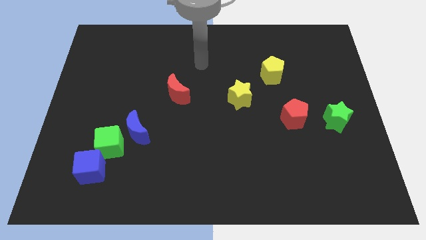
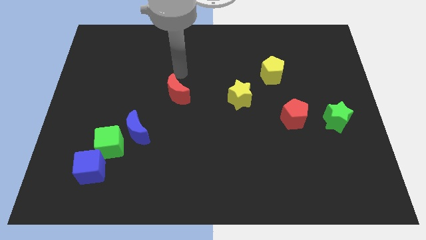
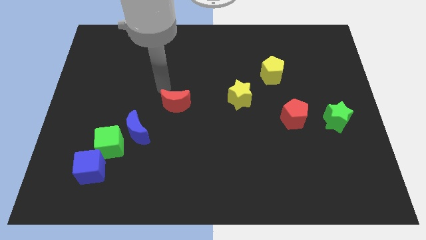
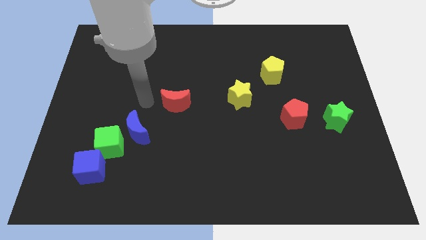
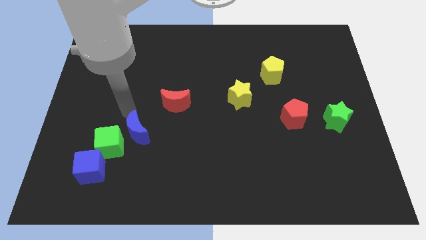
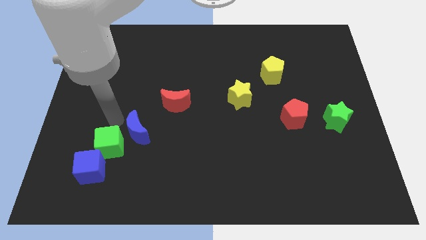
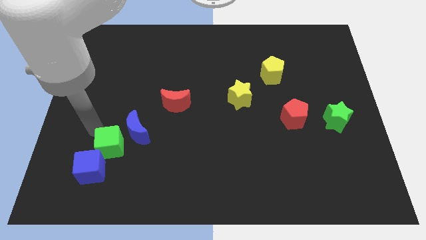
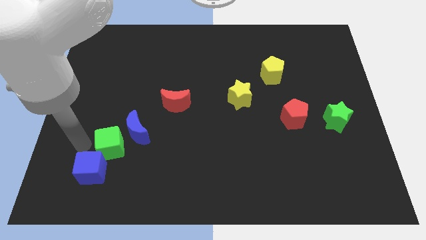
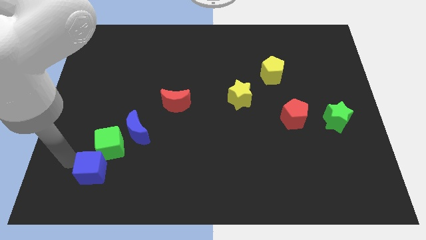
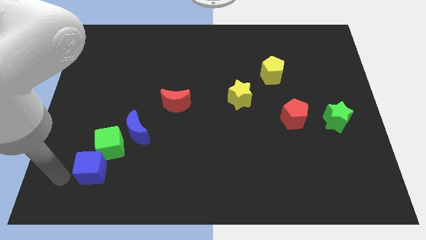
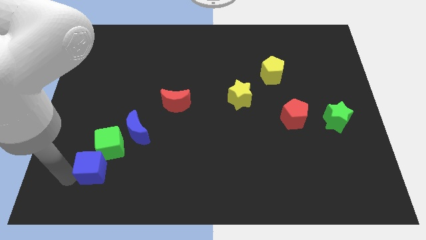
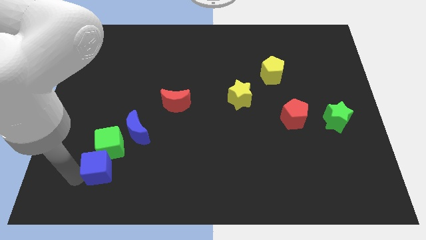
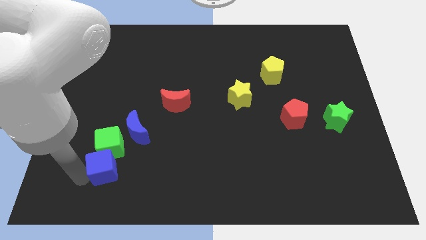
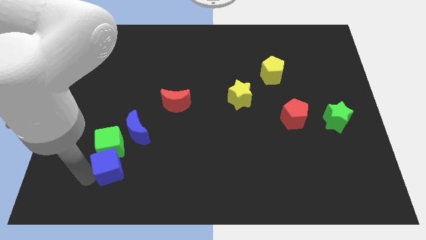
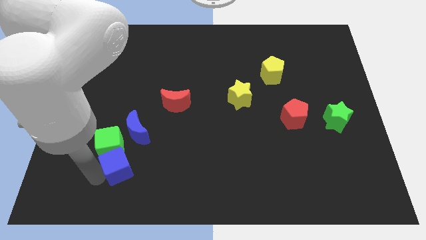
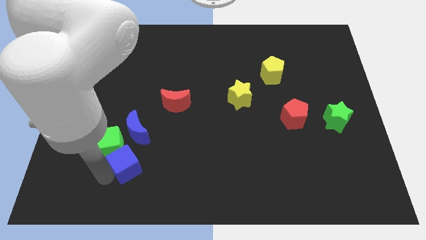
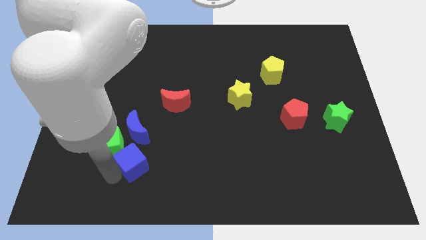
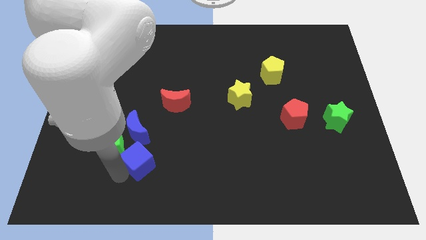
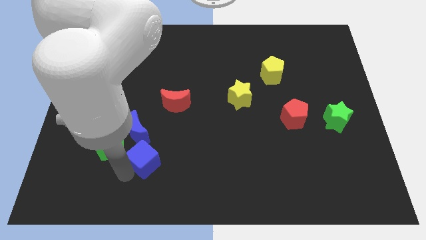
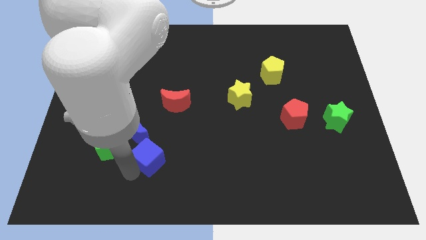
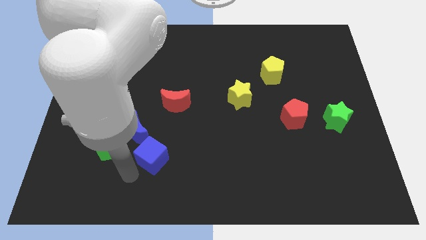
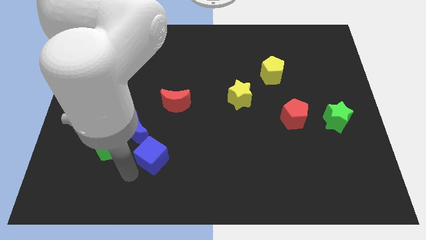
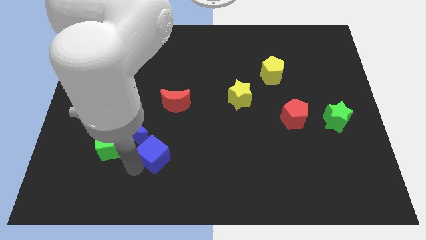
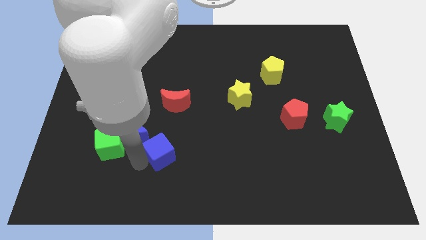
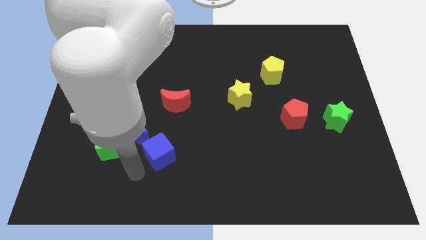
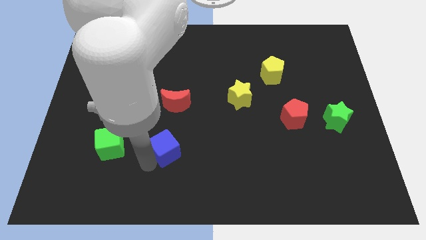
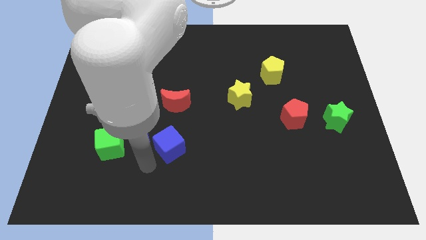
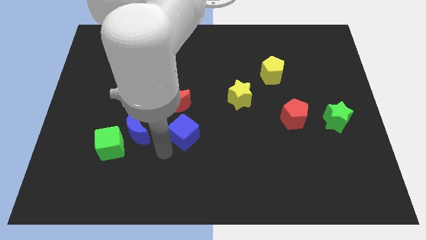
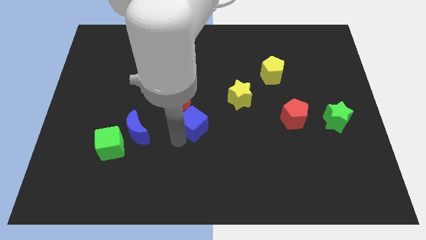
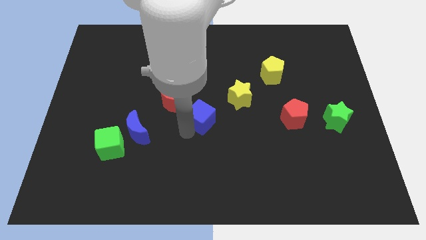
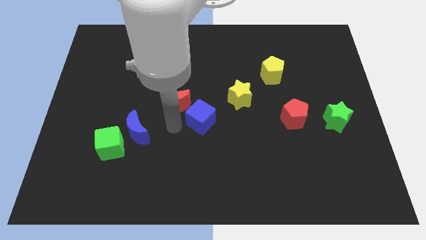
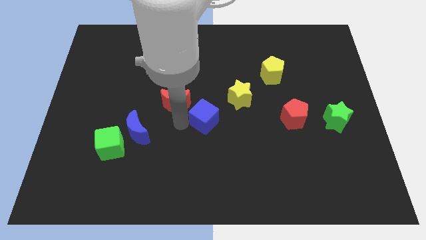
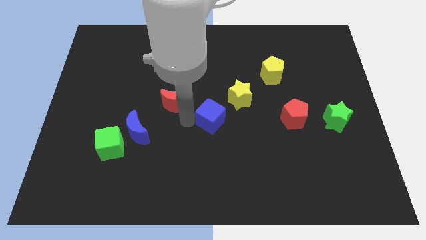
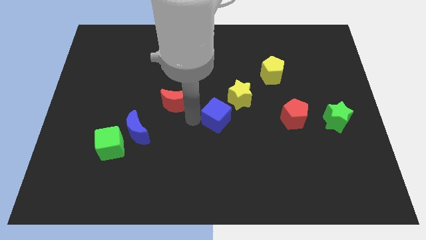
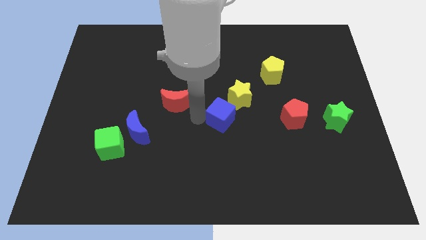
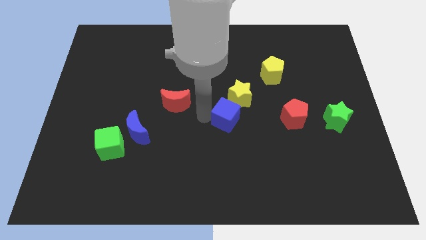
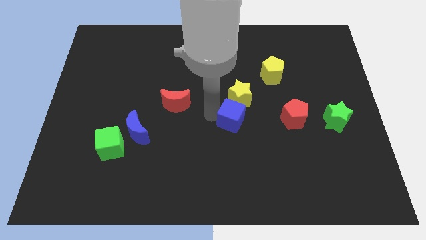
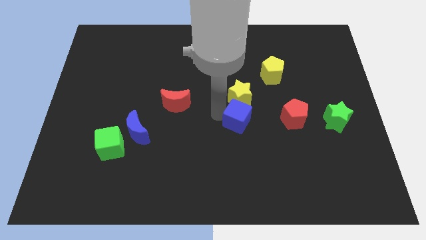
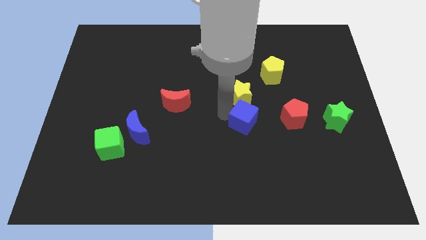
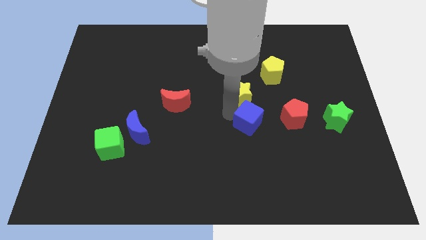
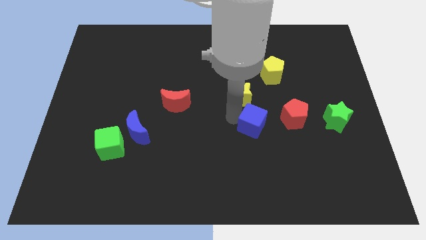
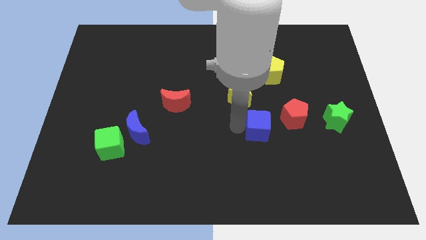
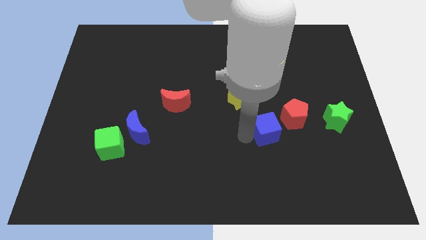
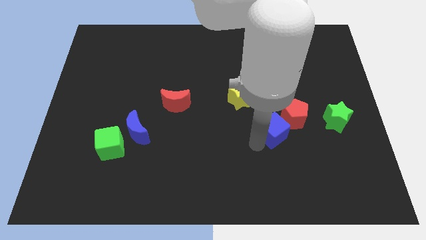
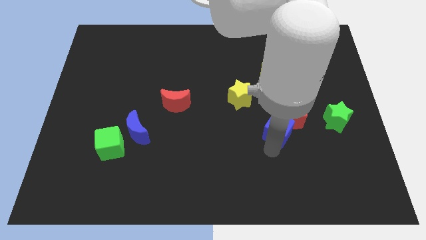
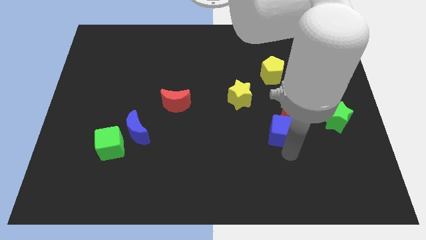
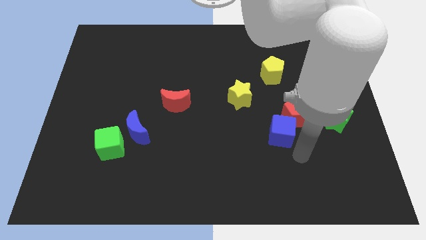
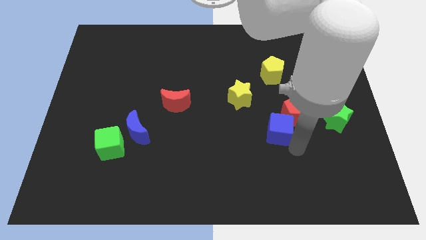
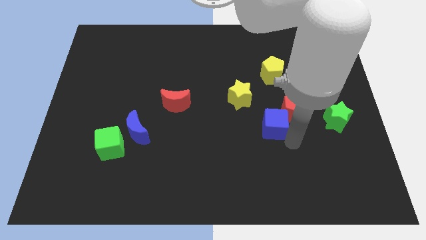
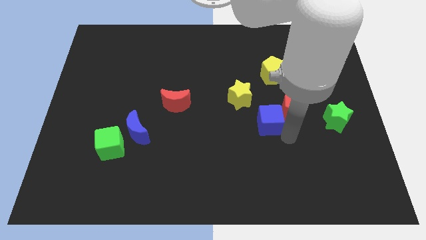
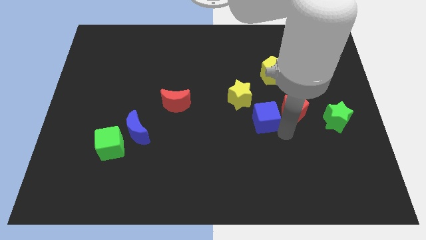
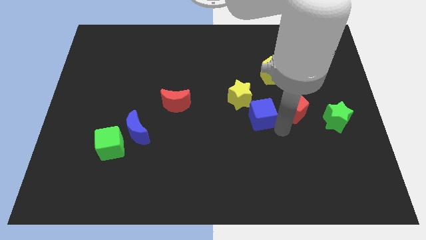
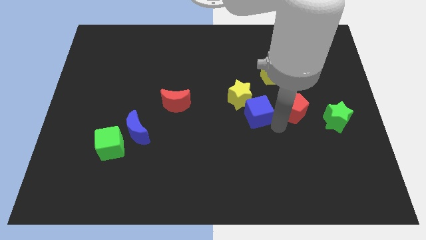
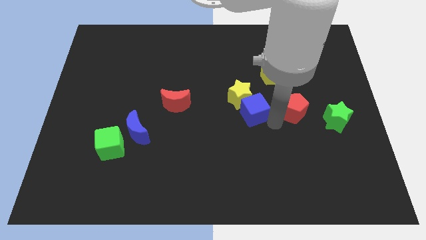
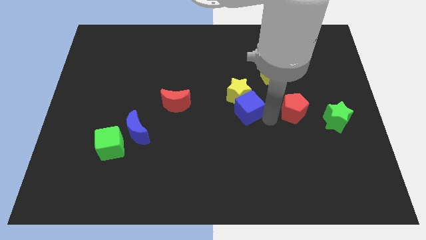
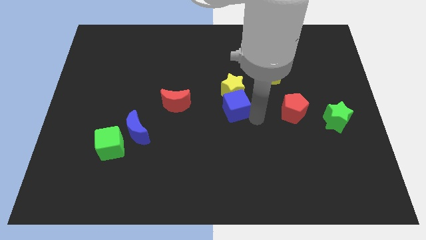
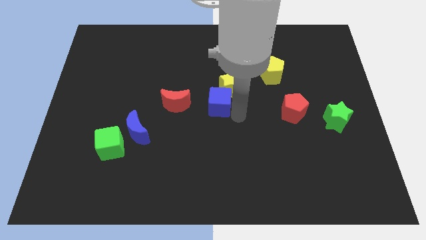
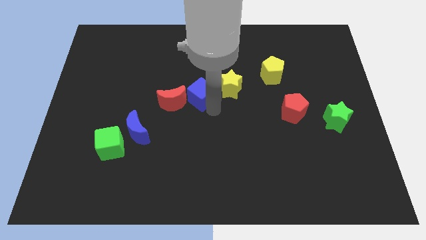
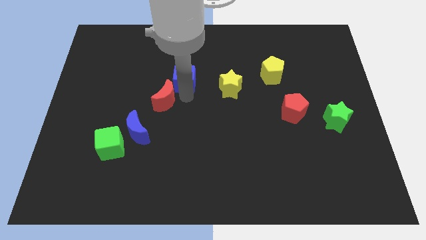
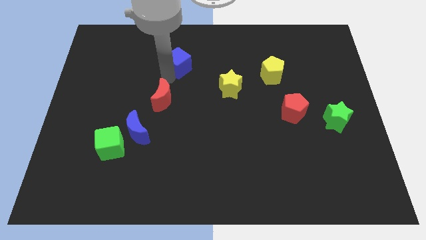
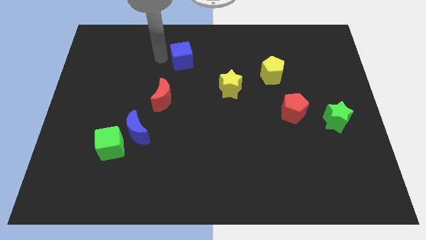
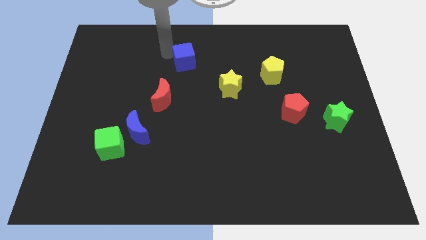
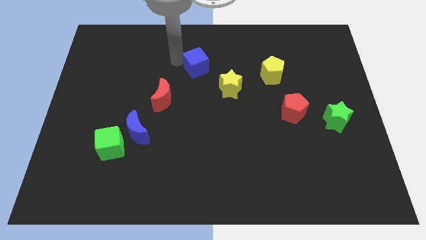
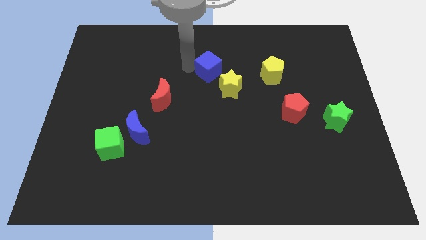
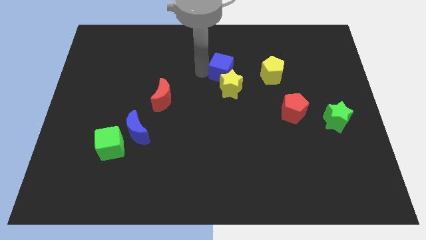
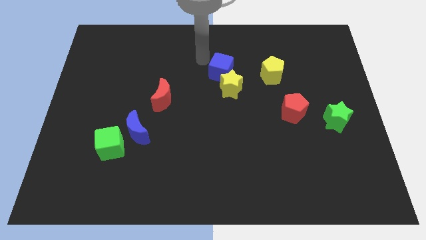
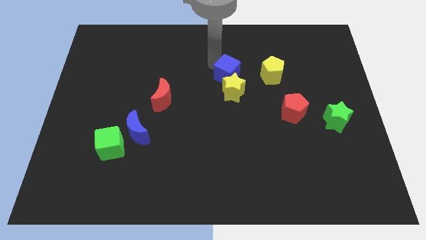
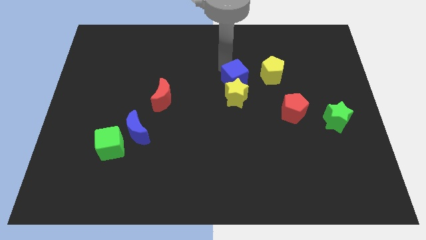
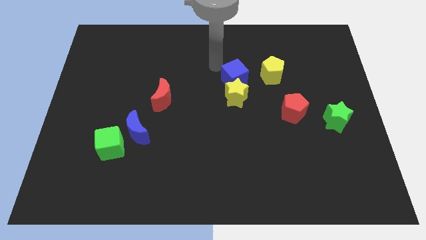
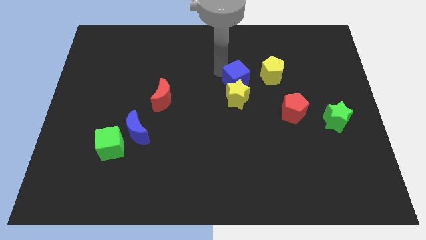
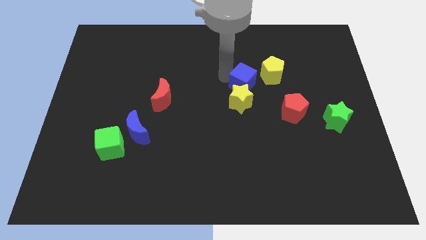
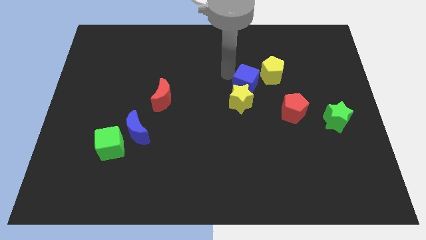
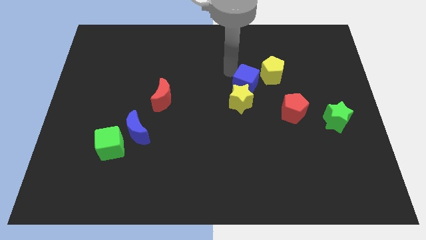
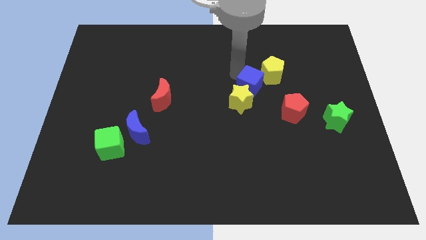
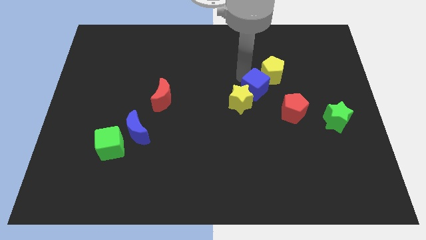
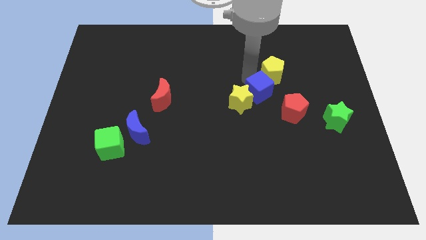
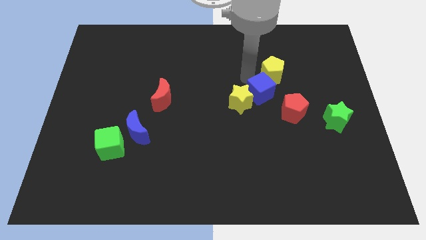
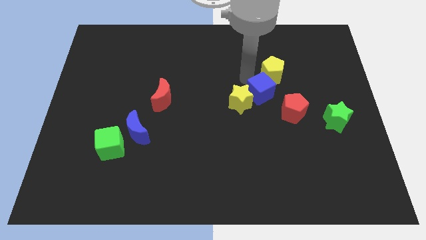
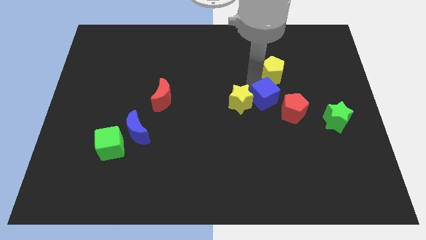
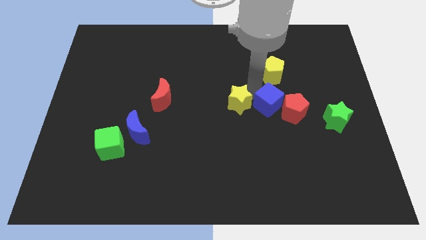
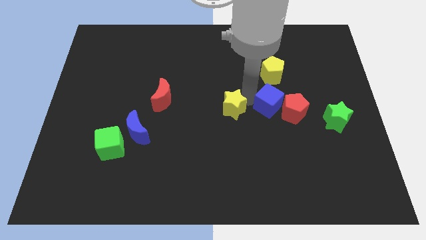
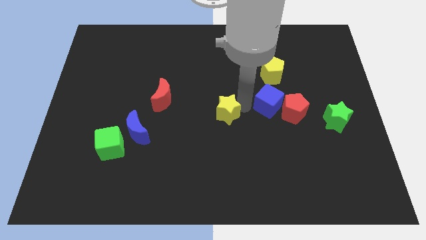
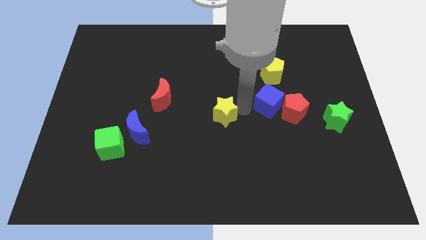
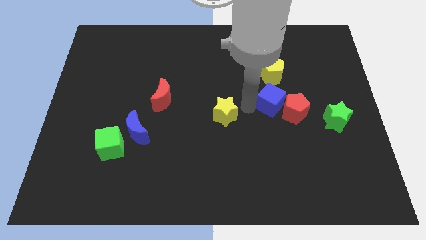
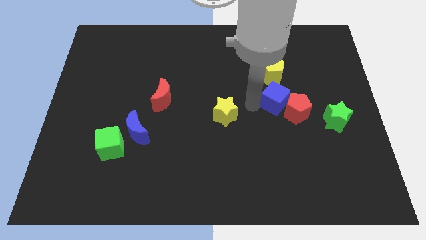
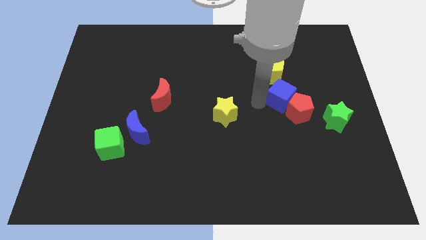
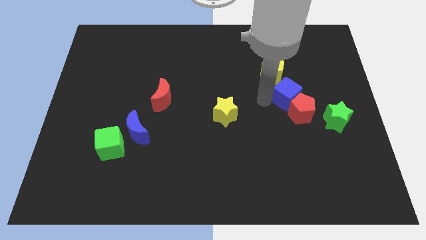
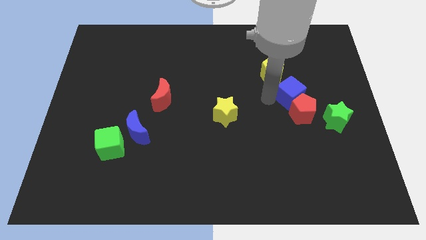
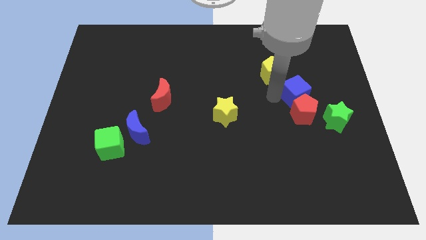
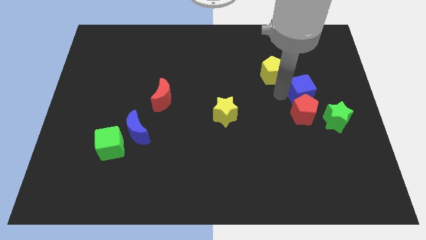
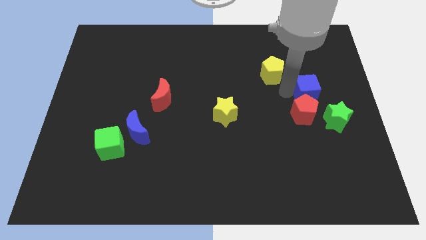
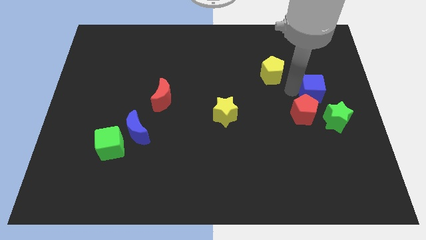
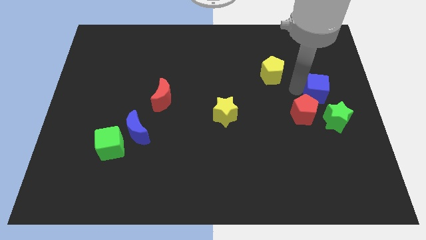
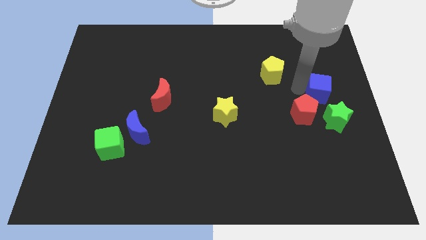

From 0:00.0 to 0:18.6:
push the blue cube to the center right
